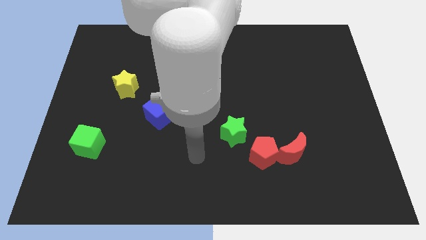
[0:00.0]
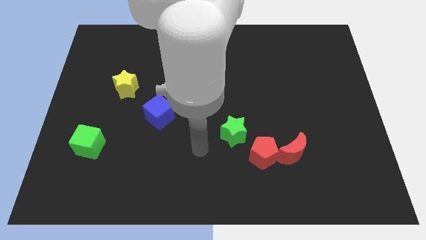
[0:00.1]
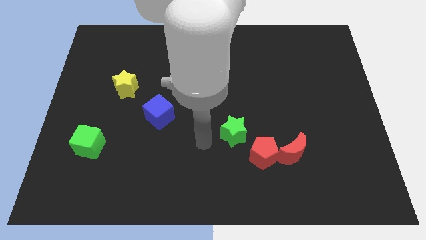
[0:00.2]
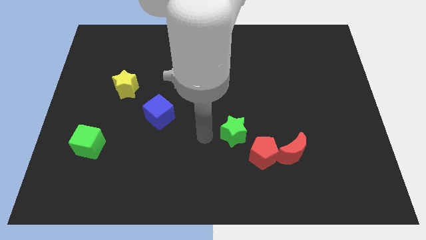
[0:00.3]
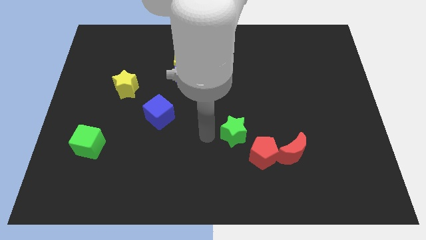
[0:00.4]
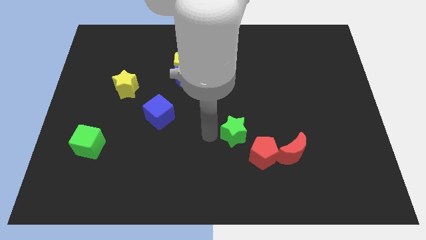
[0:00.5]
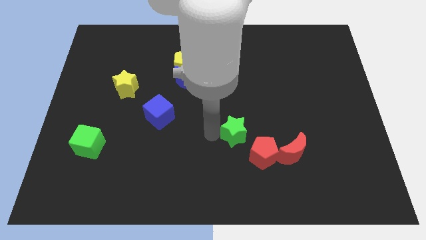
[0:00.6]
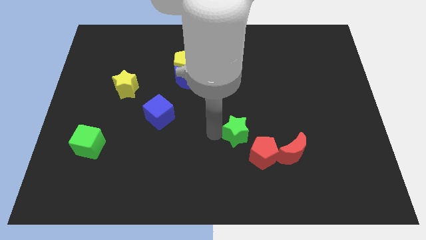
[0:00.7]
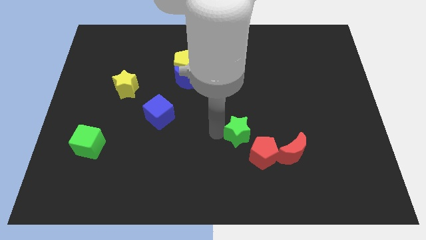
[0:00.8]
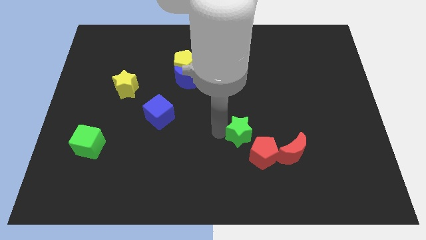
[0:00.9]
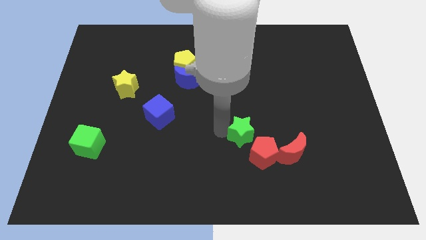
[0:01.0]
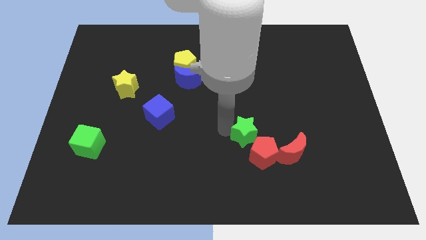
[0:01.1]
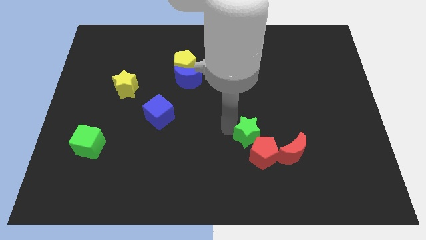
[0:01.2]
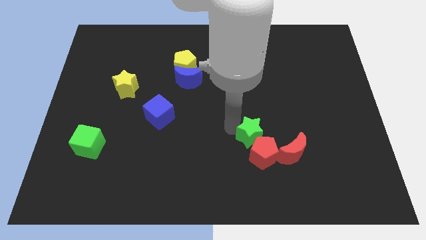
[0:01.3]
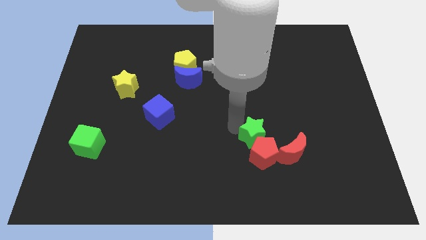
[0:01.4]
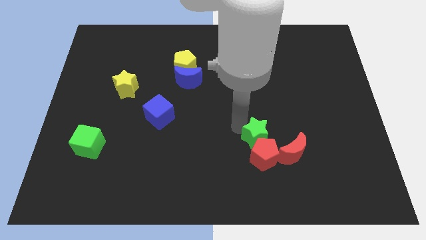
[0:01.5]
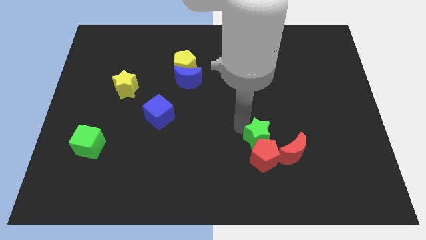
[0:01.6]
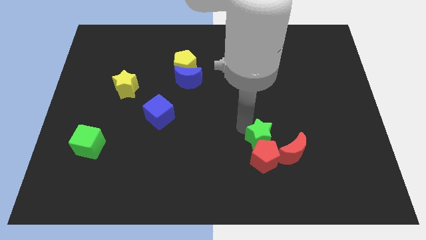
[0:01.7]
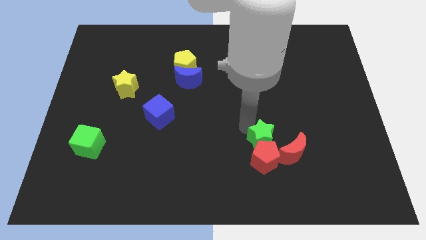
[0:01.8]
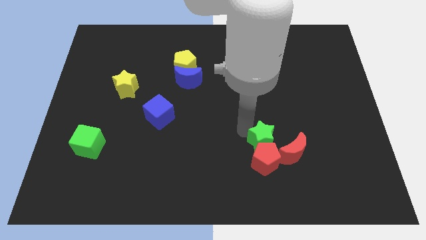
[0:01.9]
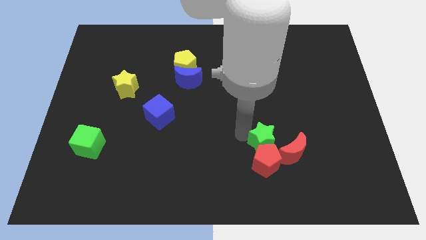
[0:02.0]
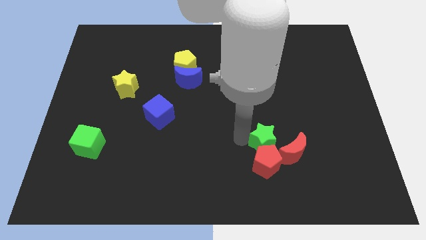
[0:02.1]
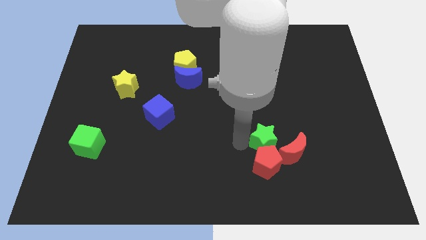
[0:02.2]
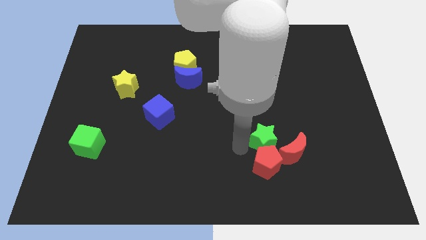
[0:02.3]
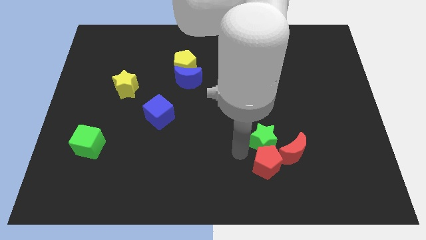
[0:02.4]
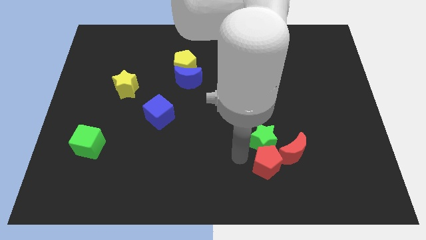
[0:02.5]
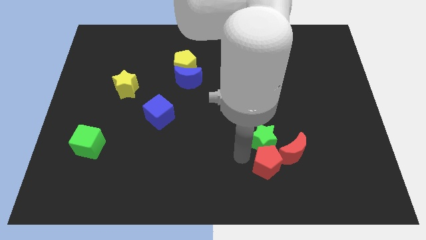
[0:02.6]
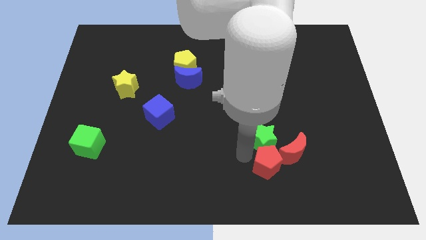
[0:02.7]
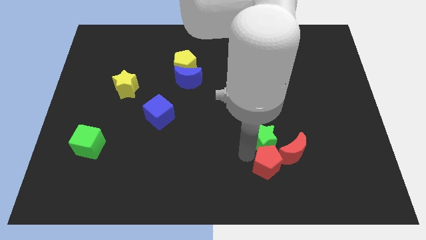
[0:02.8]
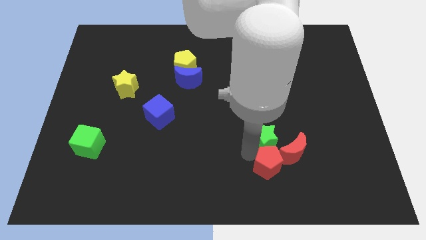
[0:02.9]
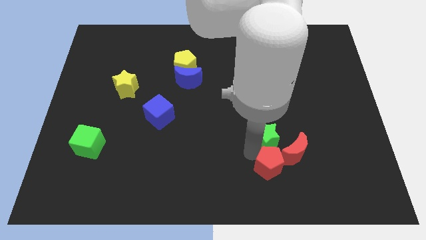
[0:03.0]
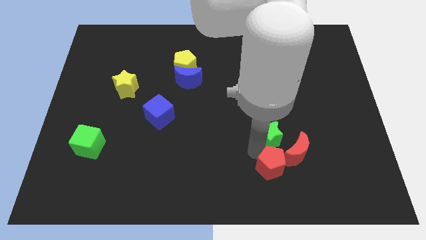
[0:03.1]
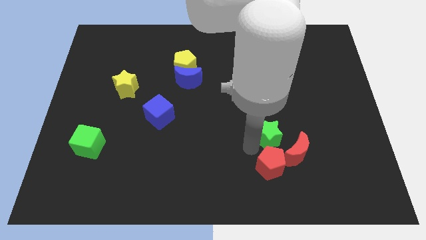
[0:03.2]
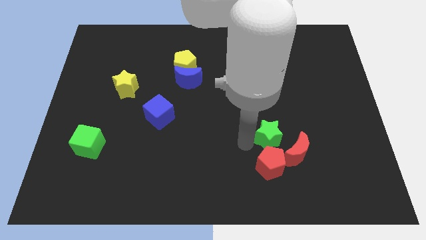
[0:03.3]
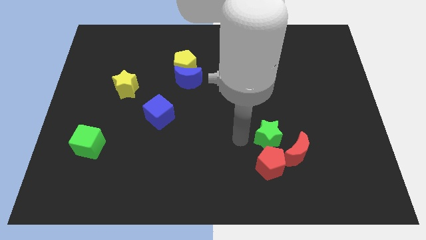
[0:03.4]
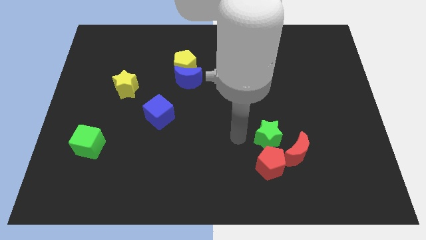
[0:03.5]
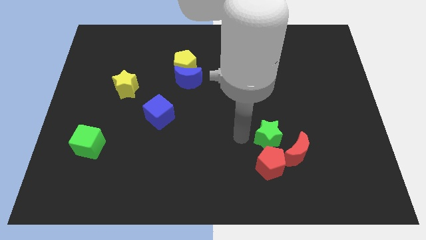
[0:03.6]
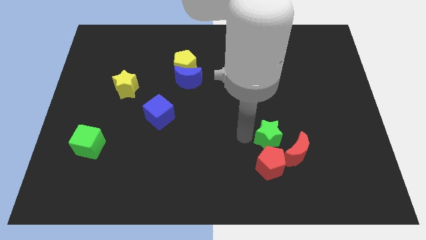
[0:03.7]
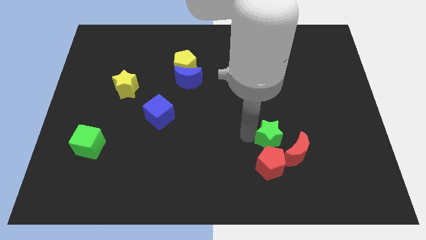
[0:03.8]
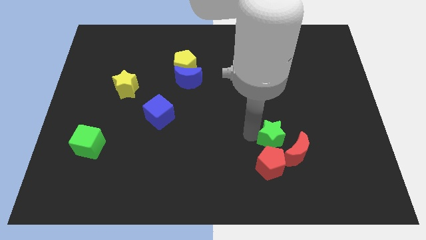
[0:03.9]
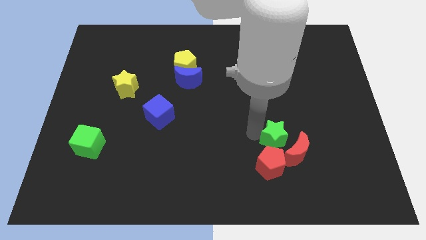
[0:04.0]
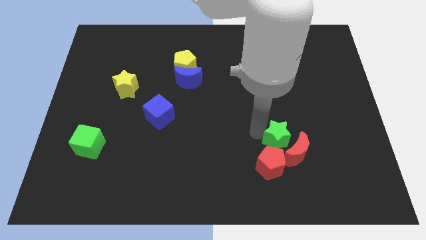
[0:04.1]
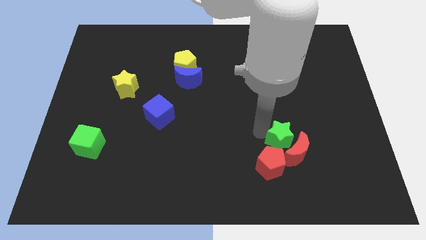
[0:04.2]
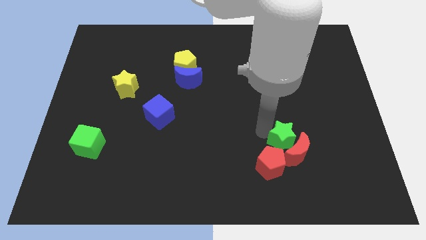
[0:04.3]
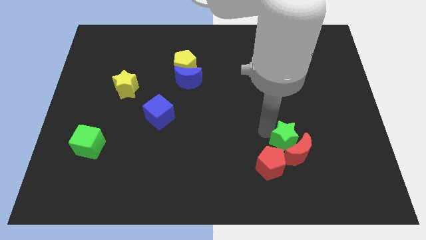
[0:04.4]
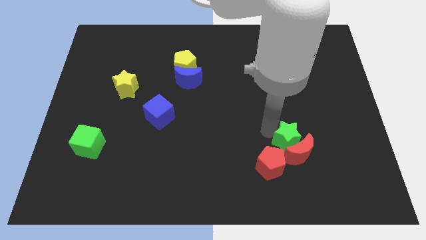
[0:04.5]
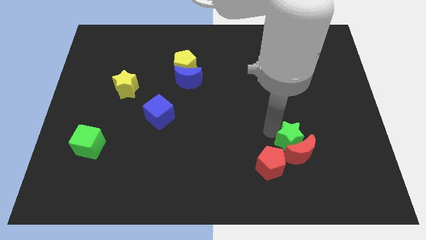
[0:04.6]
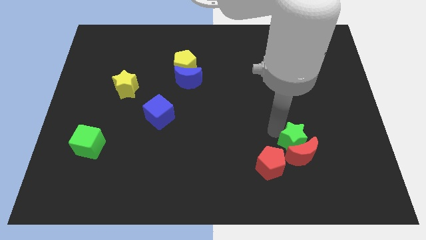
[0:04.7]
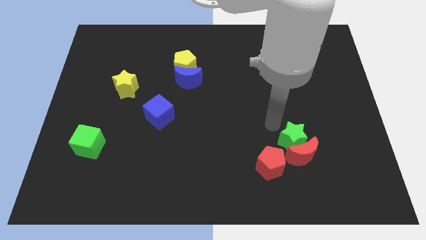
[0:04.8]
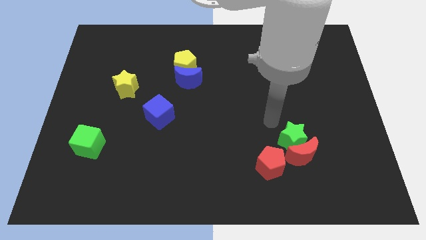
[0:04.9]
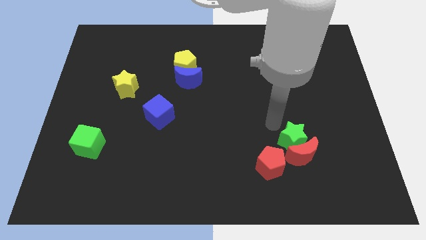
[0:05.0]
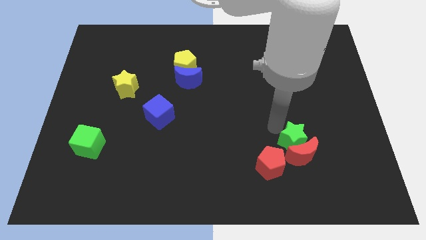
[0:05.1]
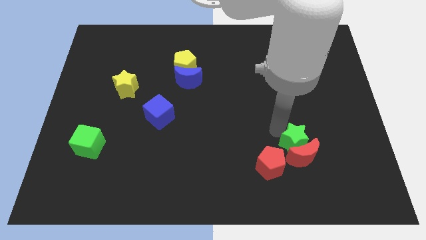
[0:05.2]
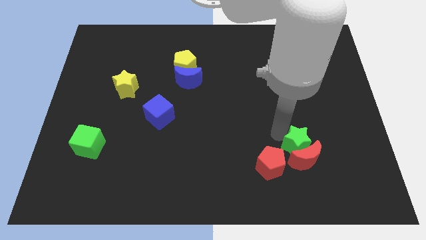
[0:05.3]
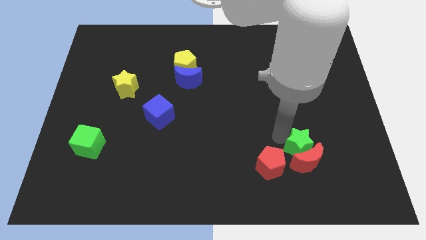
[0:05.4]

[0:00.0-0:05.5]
move the green star right of the red pentagon

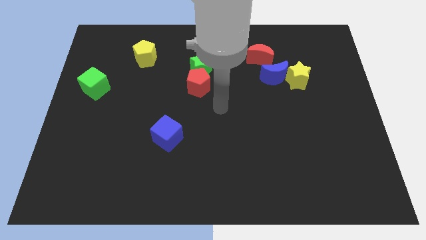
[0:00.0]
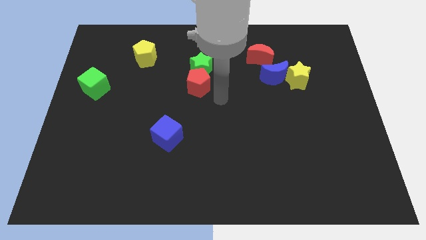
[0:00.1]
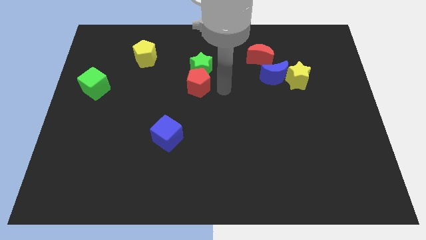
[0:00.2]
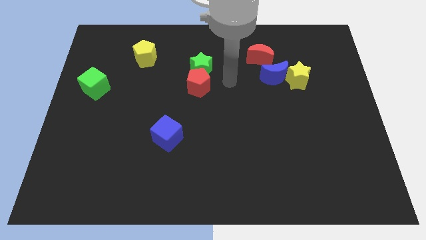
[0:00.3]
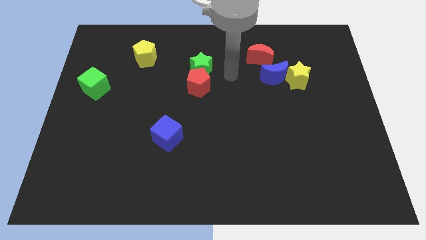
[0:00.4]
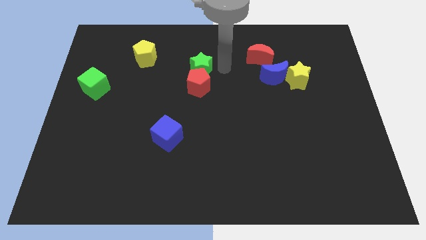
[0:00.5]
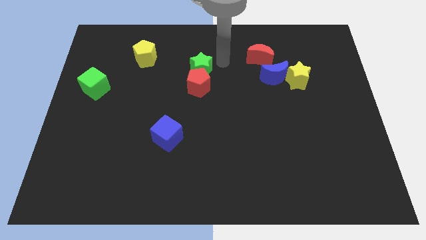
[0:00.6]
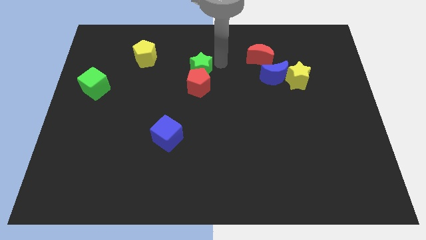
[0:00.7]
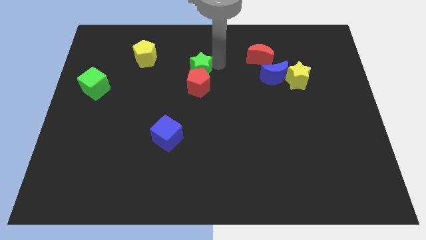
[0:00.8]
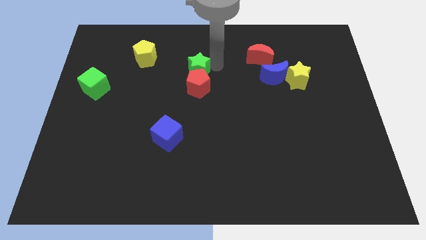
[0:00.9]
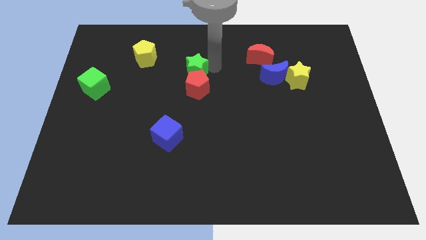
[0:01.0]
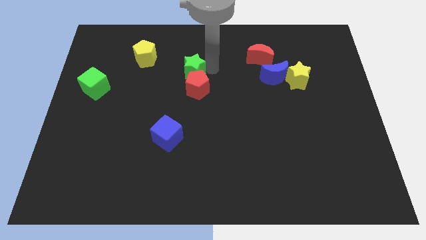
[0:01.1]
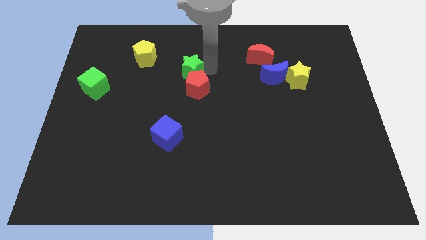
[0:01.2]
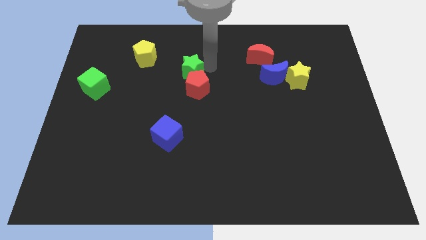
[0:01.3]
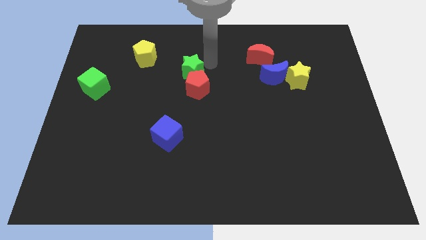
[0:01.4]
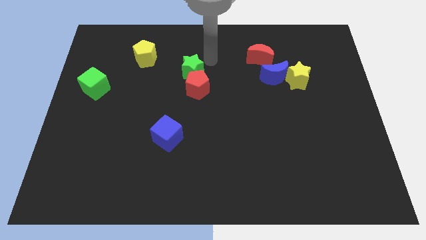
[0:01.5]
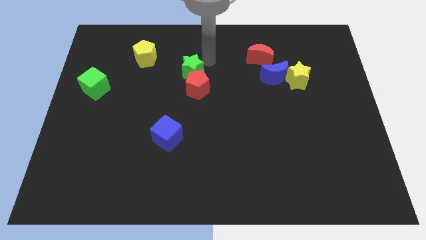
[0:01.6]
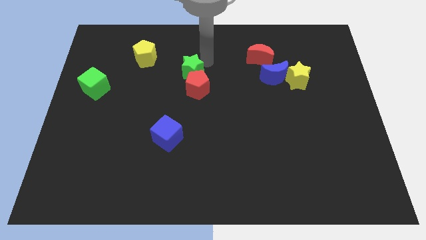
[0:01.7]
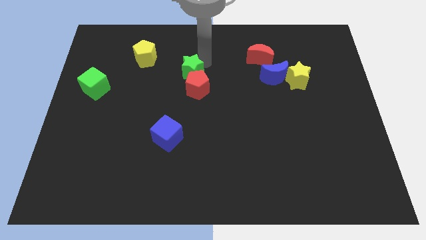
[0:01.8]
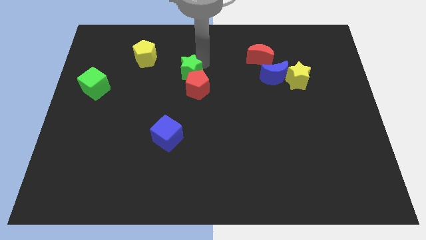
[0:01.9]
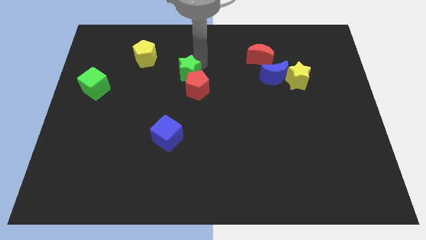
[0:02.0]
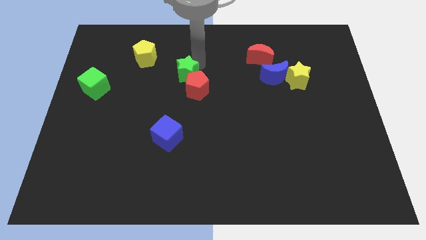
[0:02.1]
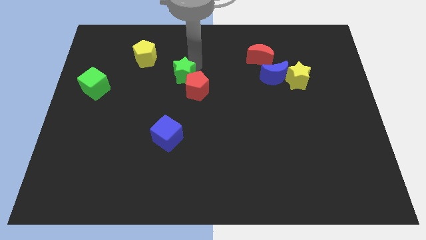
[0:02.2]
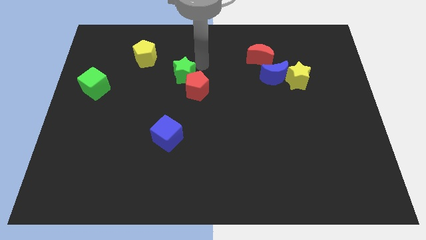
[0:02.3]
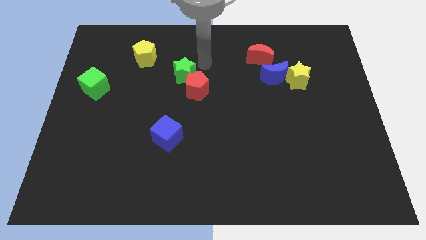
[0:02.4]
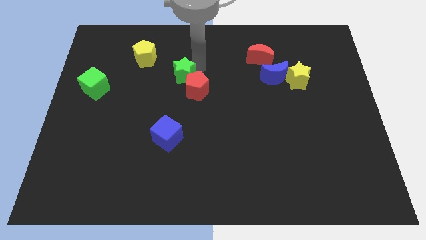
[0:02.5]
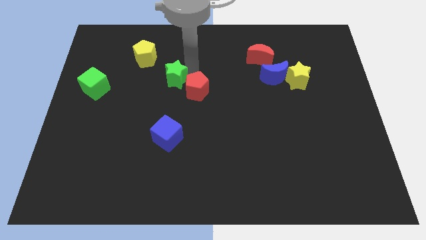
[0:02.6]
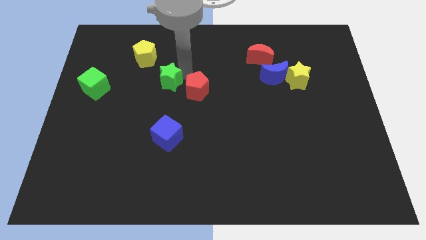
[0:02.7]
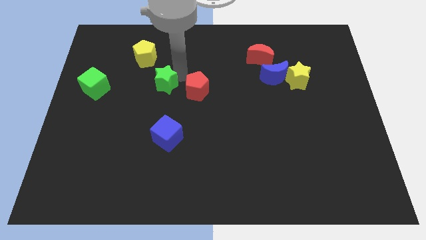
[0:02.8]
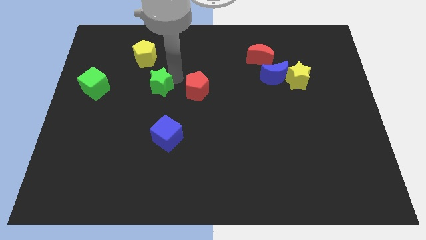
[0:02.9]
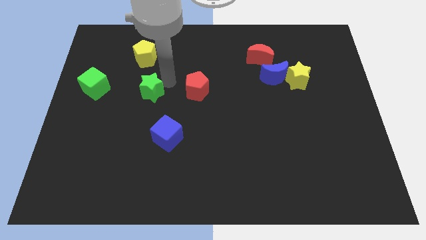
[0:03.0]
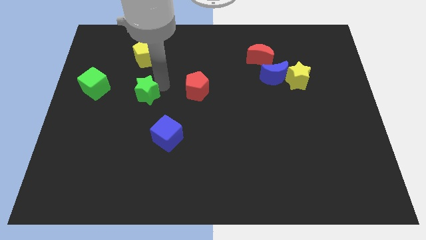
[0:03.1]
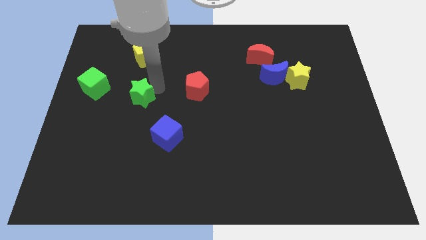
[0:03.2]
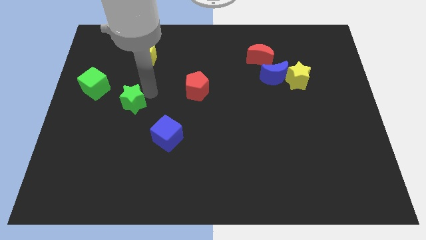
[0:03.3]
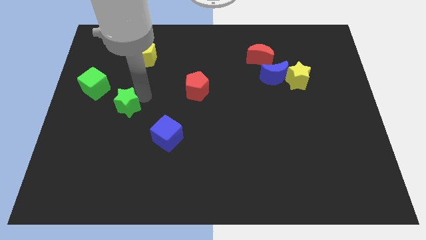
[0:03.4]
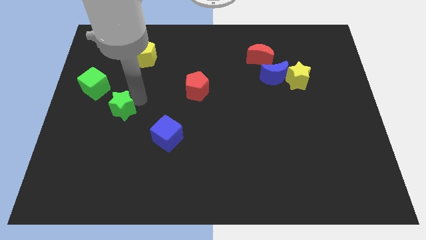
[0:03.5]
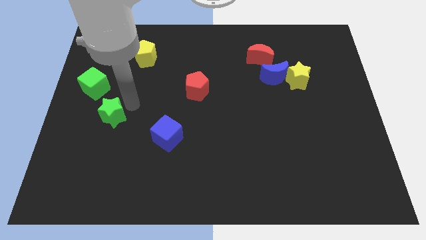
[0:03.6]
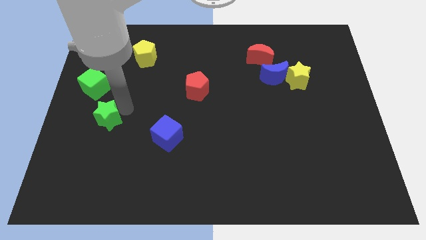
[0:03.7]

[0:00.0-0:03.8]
move the green star to the bottom side of the green cube
